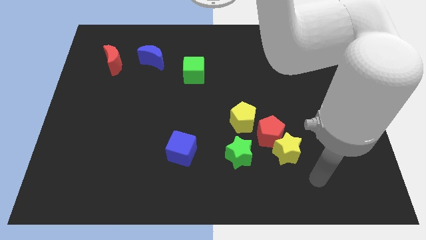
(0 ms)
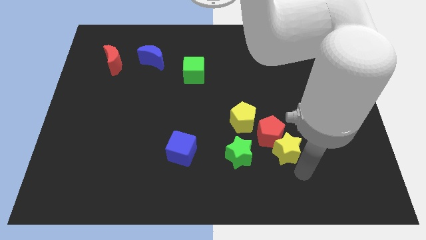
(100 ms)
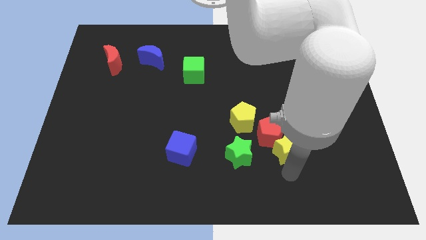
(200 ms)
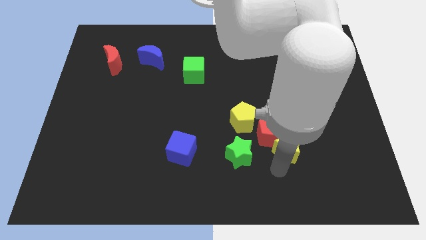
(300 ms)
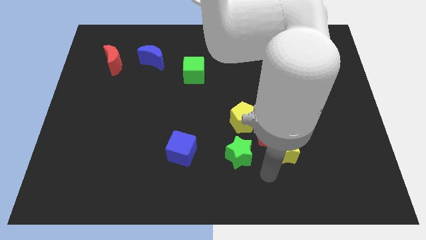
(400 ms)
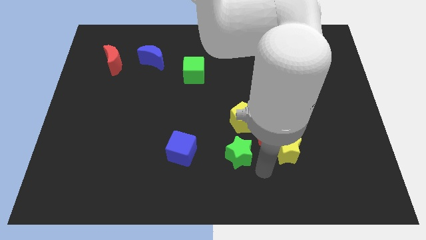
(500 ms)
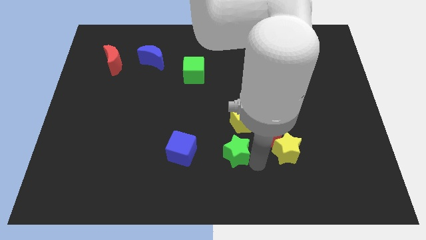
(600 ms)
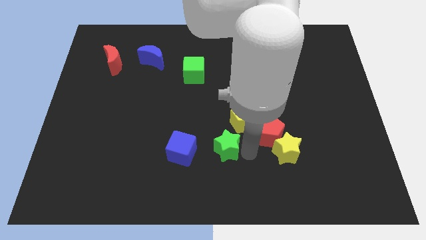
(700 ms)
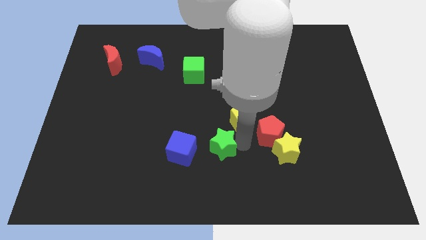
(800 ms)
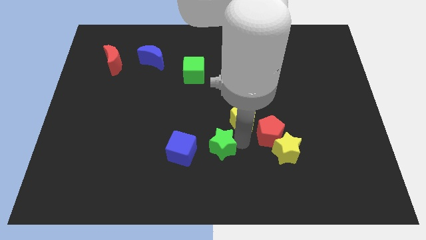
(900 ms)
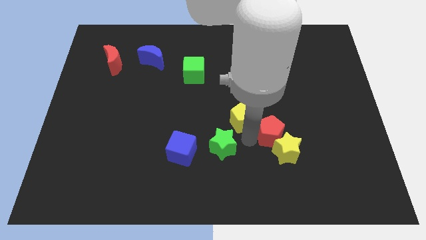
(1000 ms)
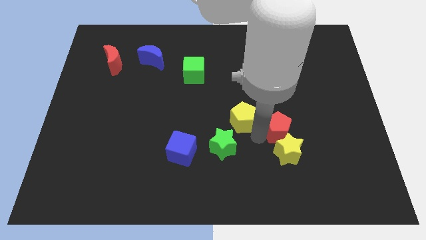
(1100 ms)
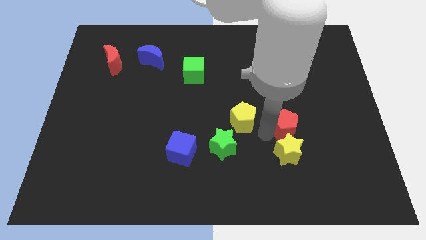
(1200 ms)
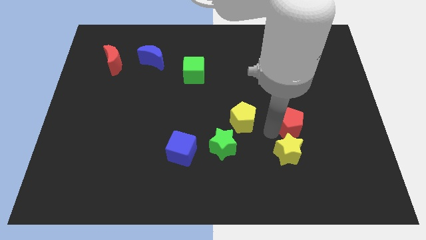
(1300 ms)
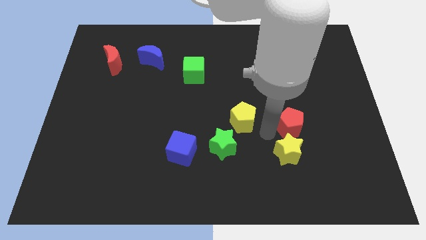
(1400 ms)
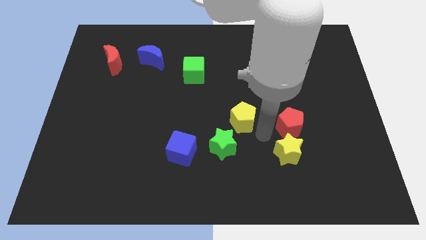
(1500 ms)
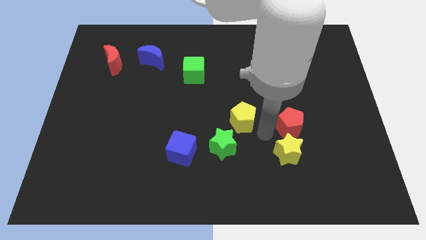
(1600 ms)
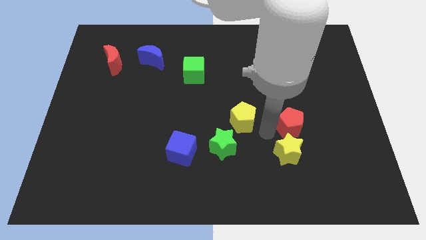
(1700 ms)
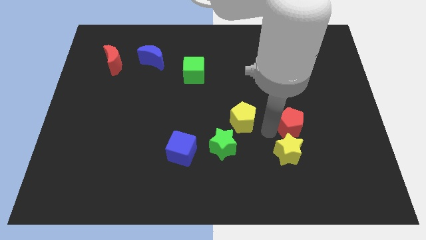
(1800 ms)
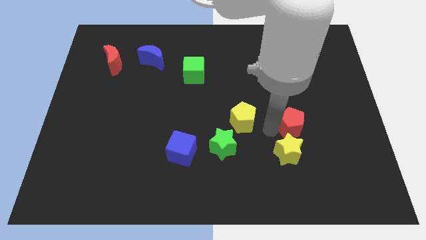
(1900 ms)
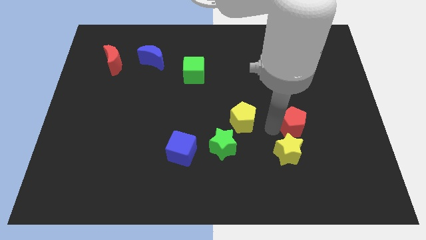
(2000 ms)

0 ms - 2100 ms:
separate the red pentagon from the yellow star, yellow pentagon, and green star

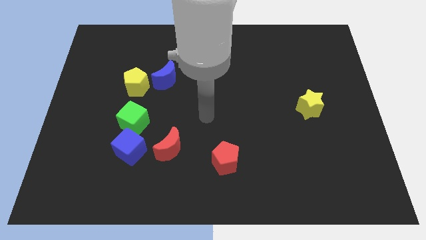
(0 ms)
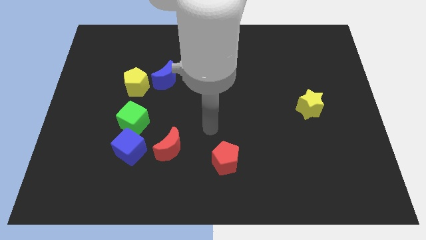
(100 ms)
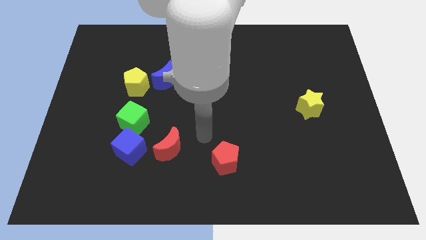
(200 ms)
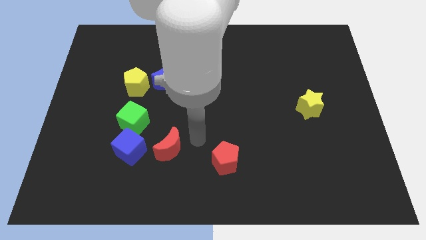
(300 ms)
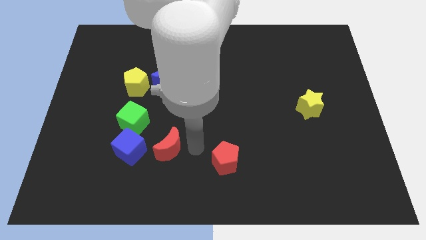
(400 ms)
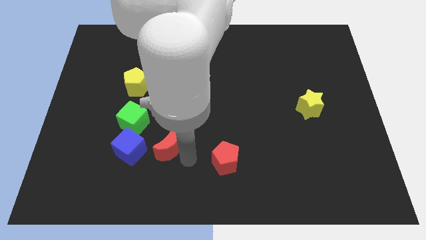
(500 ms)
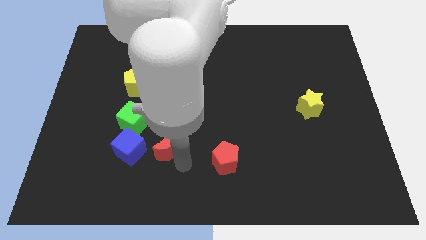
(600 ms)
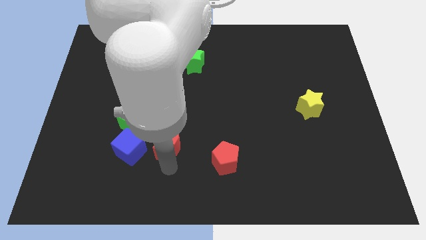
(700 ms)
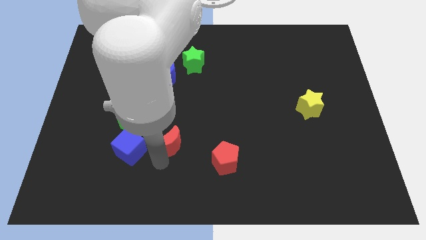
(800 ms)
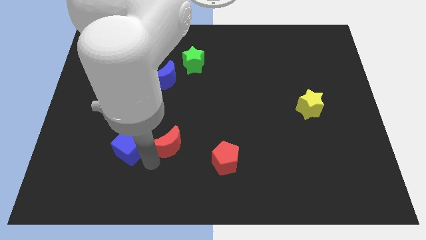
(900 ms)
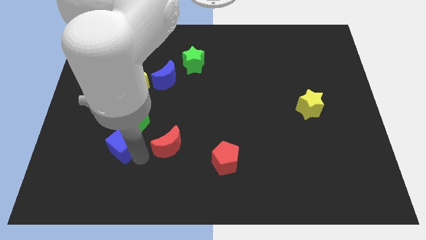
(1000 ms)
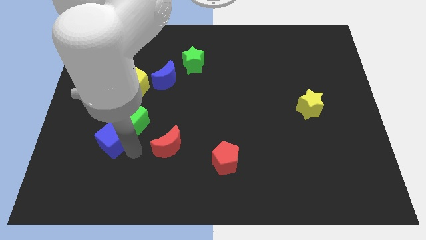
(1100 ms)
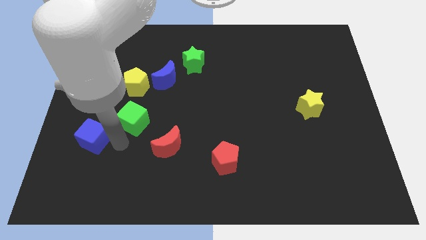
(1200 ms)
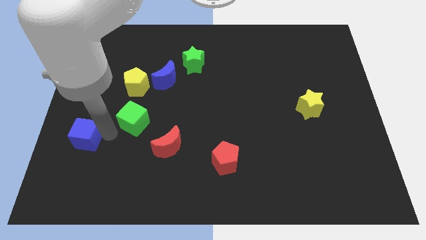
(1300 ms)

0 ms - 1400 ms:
separate the green cube from the blue cube

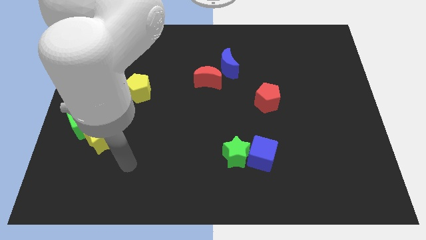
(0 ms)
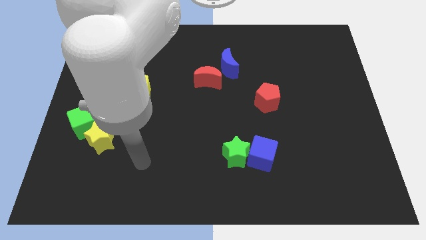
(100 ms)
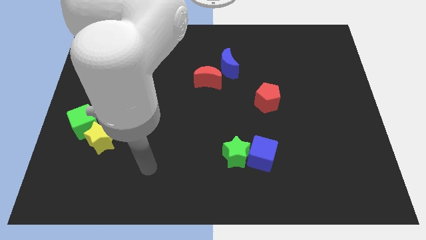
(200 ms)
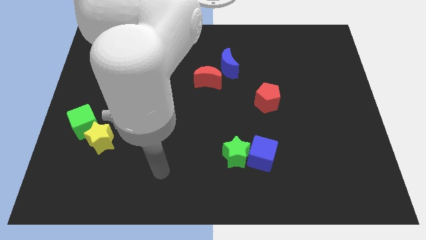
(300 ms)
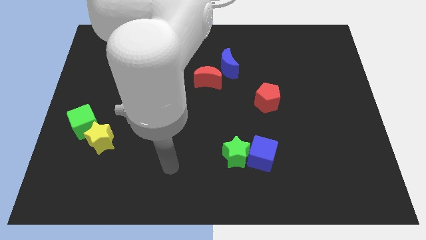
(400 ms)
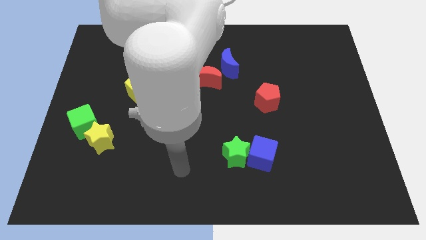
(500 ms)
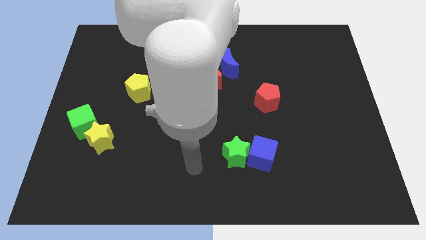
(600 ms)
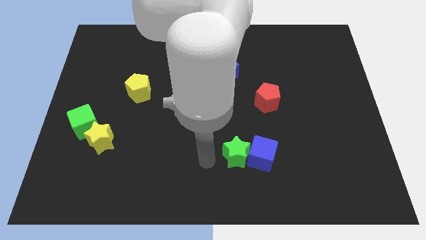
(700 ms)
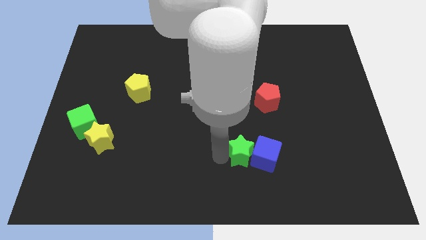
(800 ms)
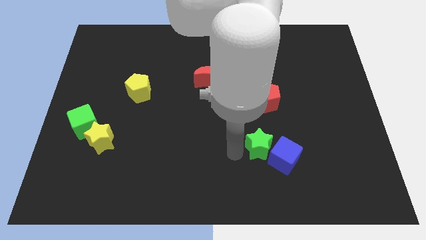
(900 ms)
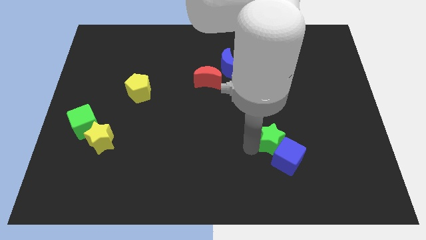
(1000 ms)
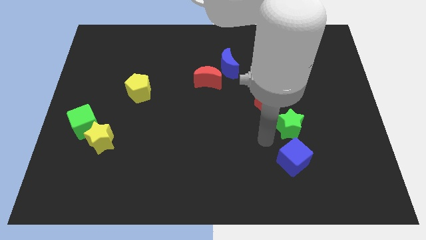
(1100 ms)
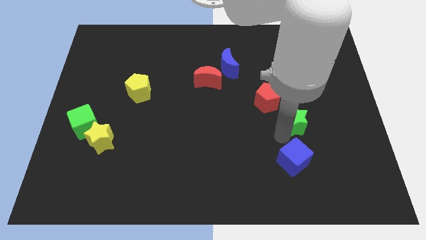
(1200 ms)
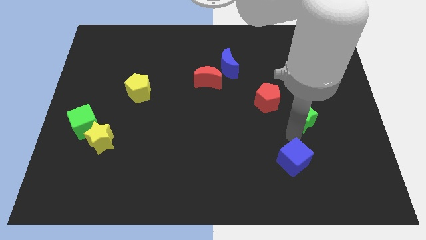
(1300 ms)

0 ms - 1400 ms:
move the blue cube away from the green star

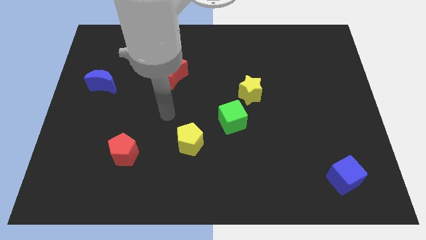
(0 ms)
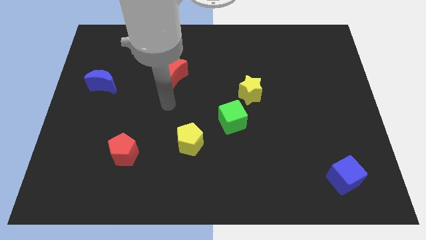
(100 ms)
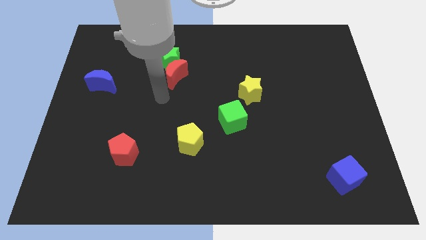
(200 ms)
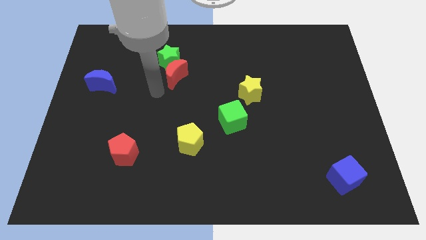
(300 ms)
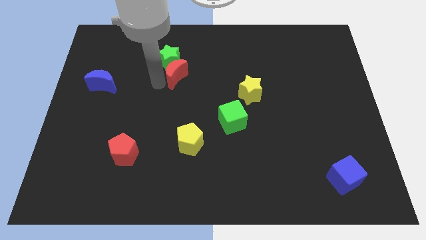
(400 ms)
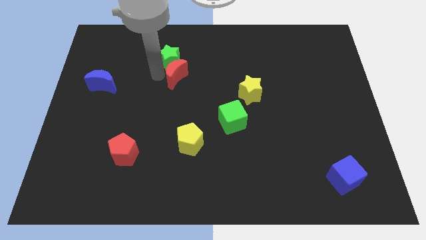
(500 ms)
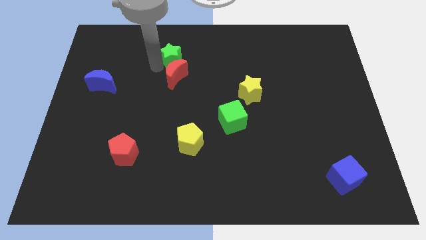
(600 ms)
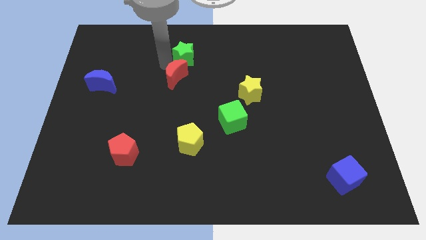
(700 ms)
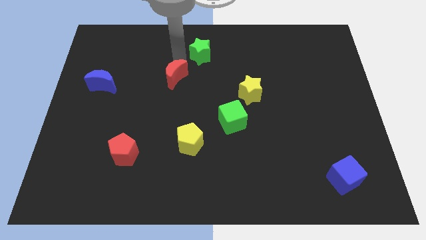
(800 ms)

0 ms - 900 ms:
separate the red moon from the green star

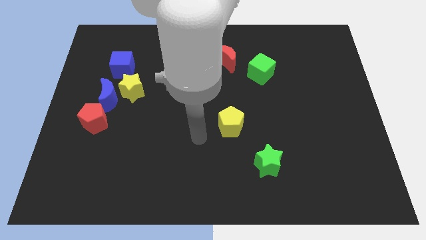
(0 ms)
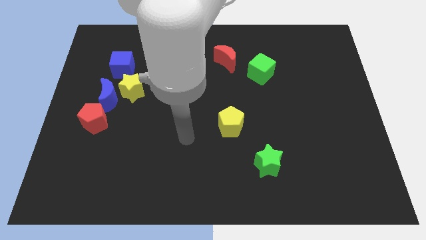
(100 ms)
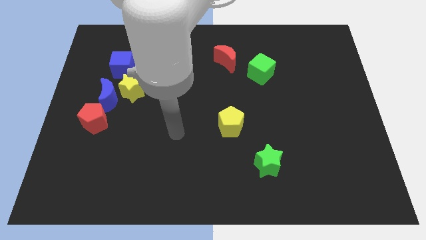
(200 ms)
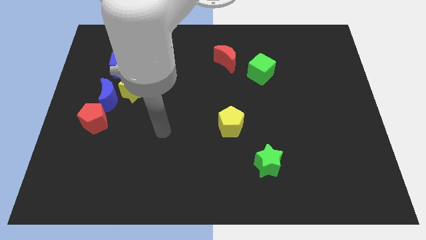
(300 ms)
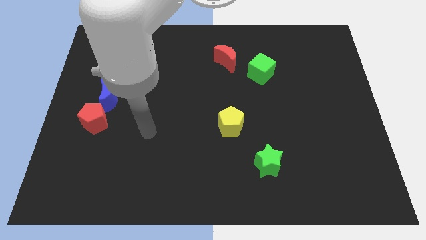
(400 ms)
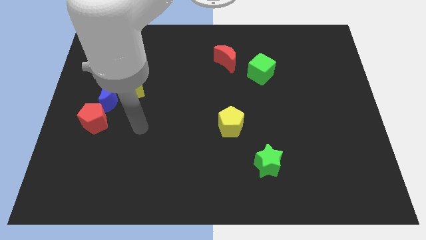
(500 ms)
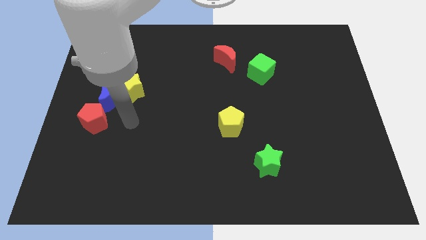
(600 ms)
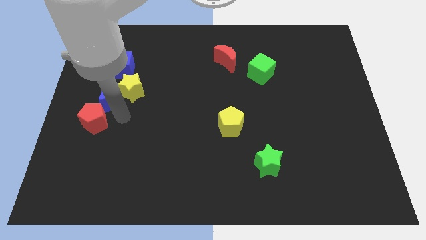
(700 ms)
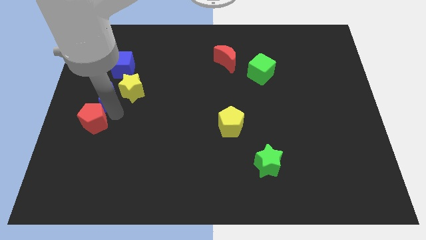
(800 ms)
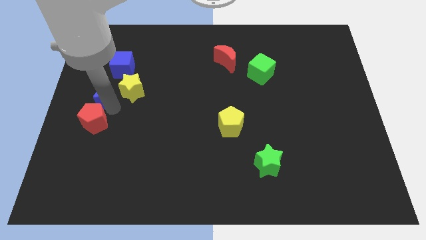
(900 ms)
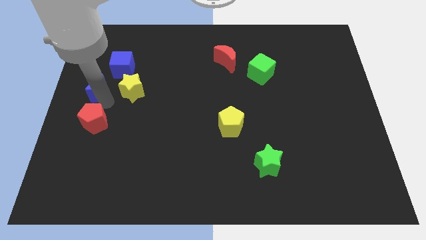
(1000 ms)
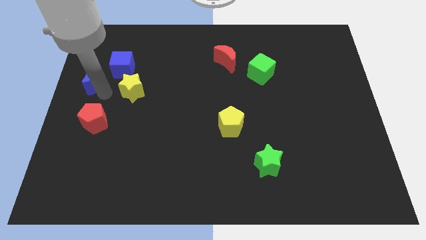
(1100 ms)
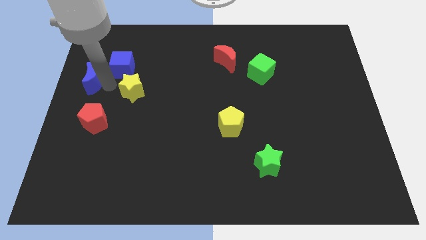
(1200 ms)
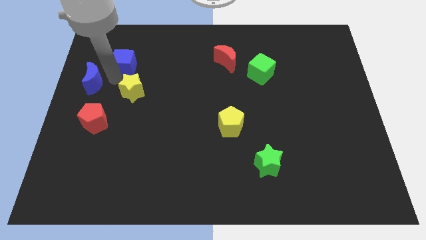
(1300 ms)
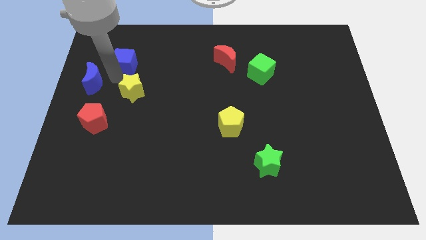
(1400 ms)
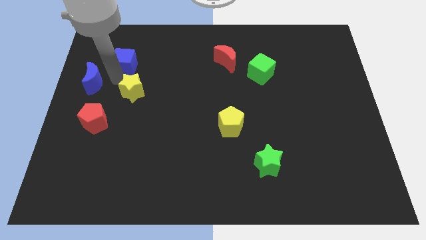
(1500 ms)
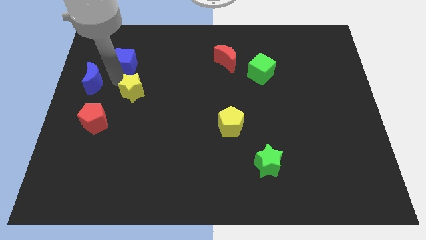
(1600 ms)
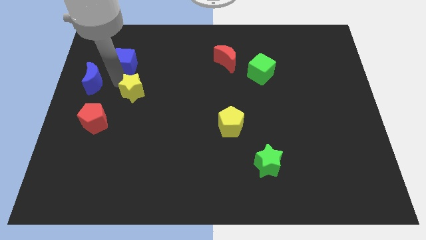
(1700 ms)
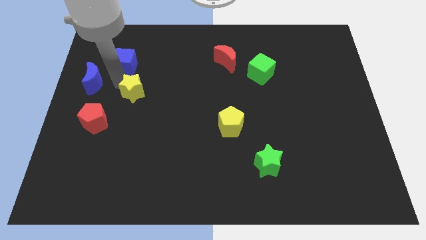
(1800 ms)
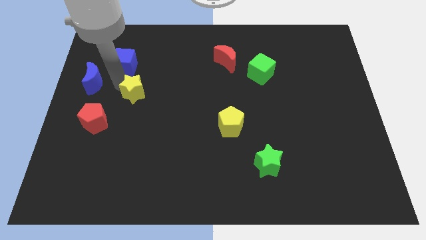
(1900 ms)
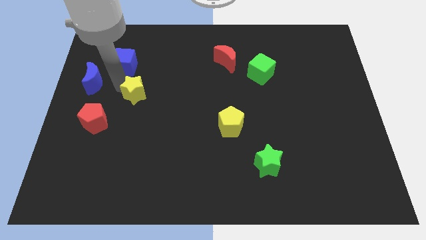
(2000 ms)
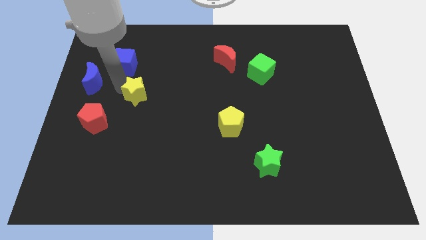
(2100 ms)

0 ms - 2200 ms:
pull the yellow star apart from the blue moon and blue cube

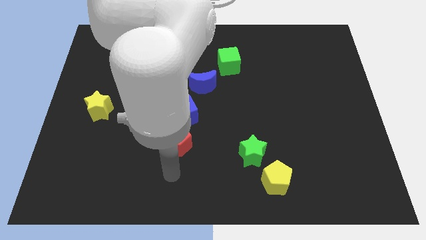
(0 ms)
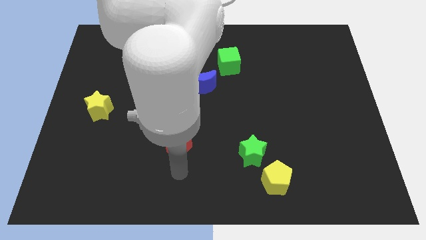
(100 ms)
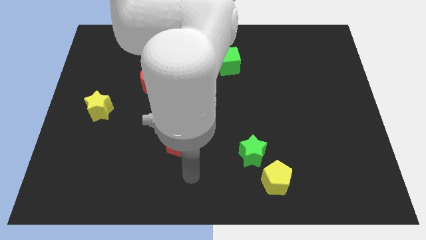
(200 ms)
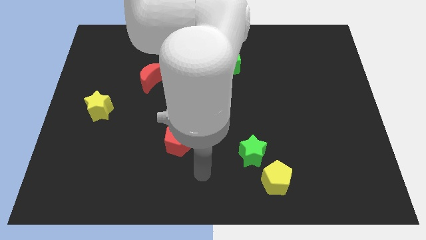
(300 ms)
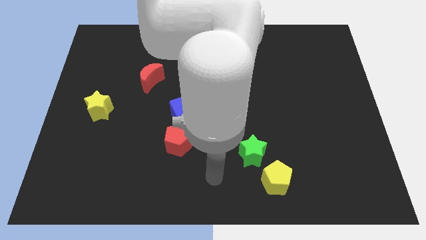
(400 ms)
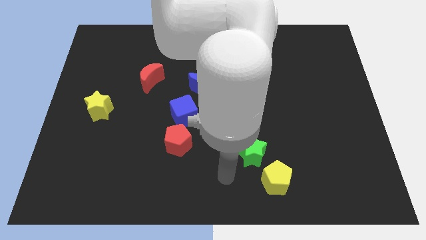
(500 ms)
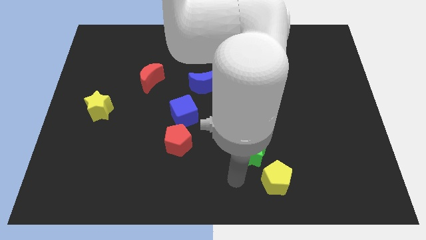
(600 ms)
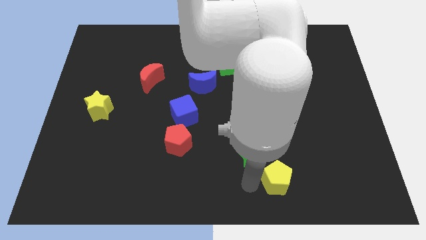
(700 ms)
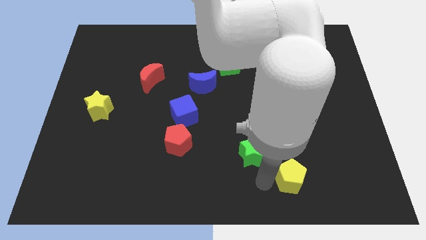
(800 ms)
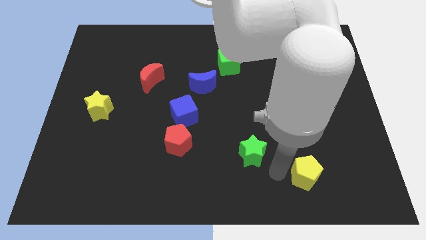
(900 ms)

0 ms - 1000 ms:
pull the green star apart from the yellow pentagon
